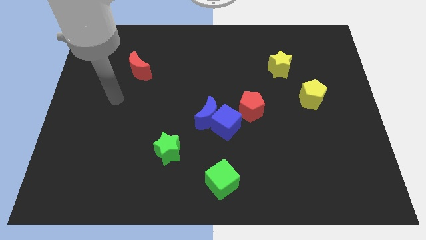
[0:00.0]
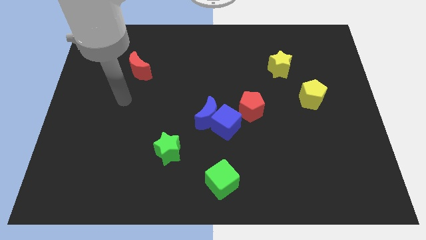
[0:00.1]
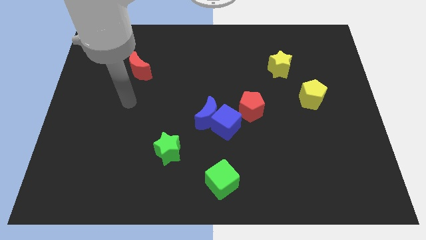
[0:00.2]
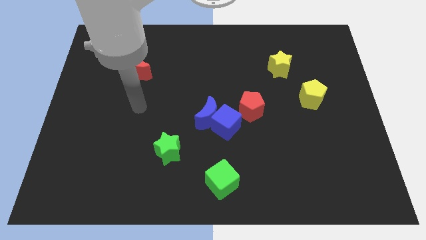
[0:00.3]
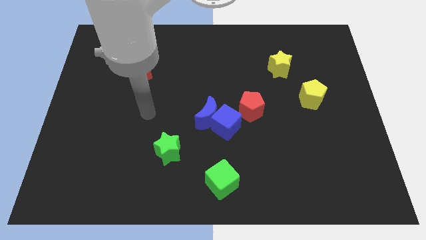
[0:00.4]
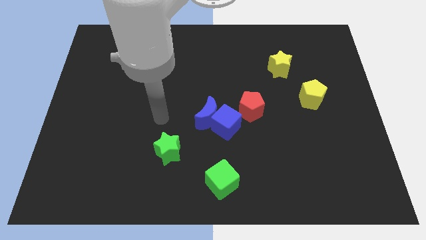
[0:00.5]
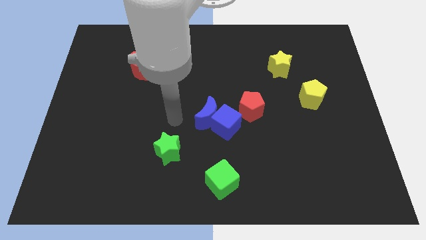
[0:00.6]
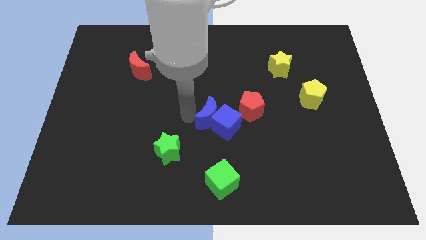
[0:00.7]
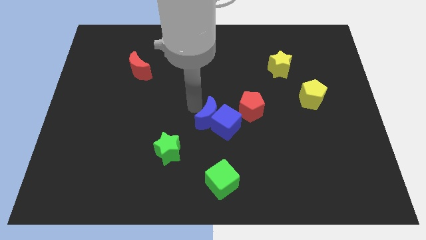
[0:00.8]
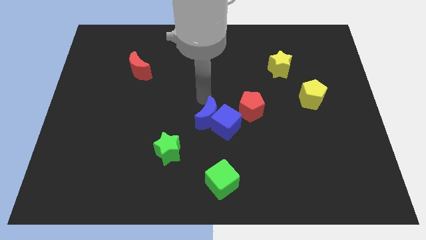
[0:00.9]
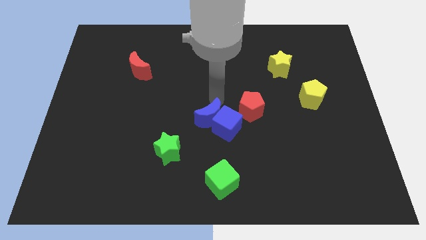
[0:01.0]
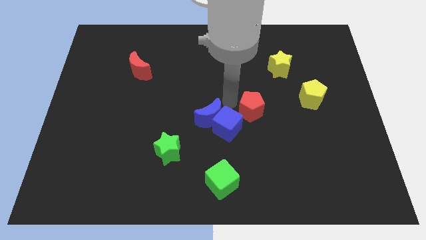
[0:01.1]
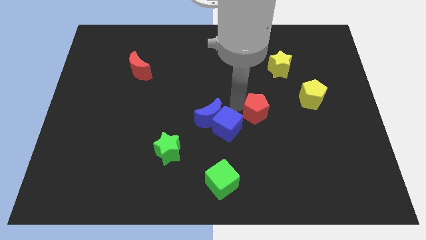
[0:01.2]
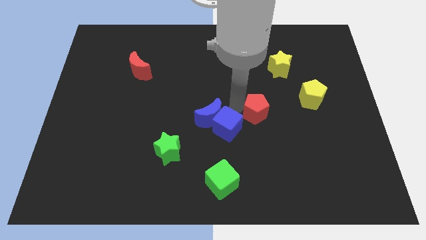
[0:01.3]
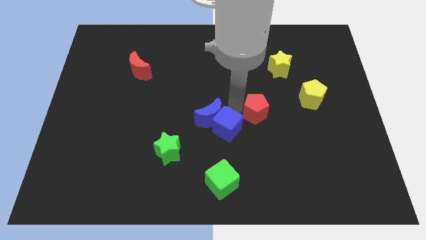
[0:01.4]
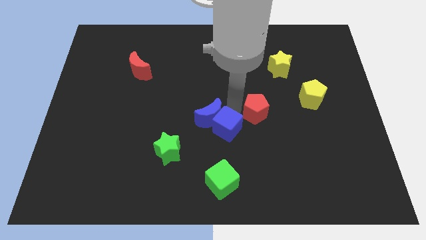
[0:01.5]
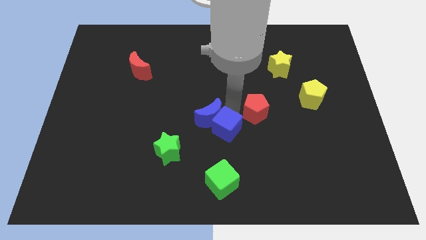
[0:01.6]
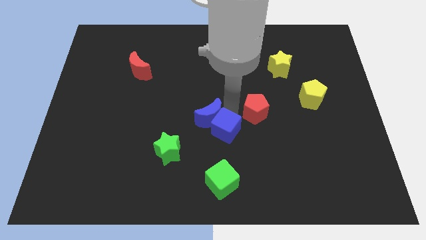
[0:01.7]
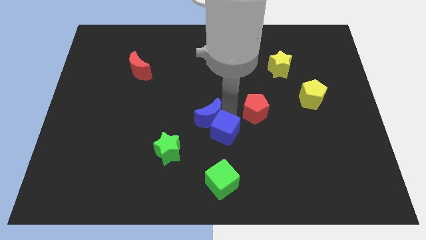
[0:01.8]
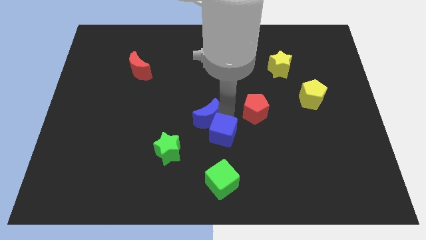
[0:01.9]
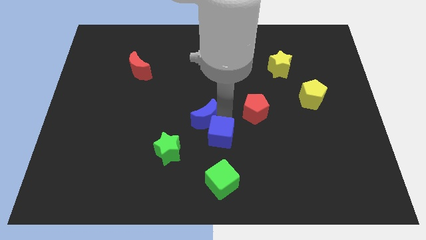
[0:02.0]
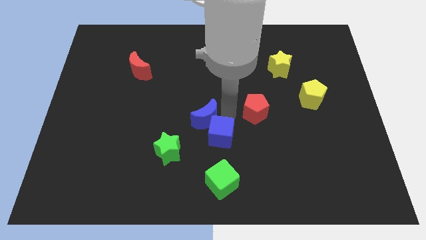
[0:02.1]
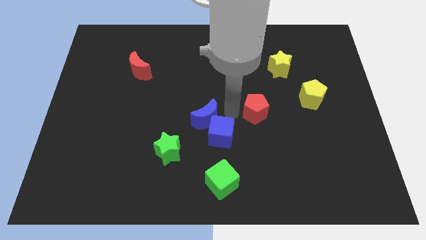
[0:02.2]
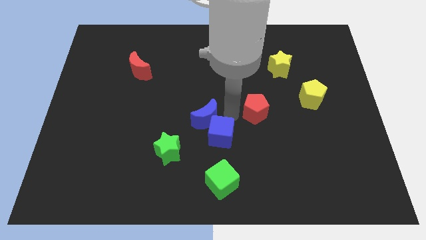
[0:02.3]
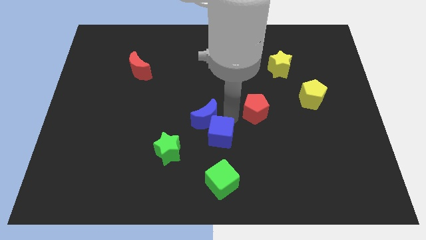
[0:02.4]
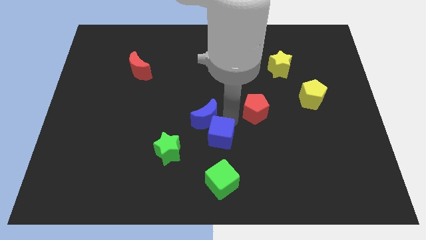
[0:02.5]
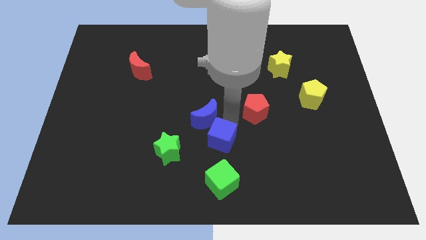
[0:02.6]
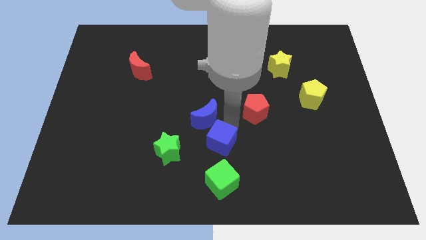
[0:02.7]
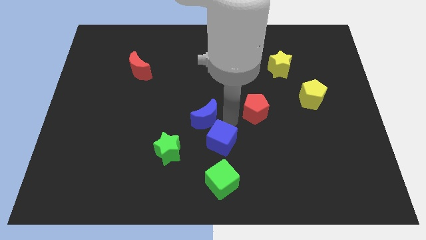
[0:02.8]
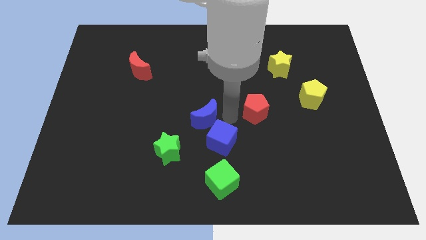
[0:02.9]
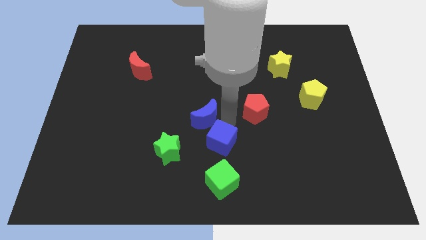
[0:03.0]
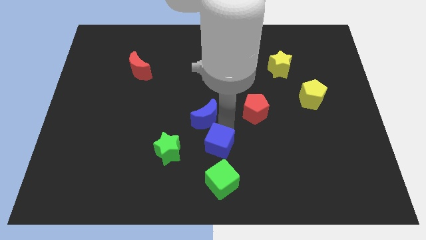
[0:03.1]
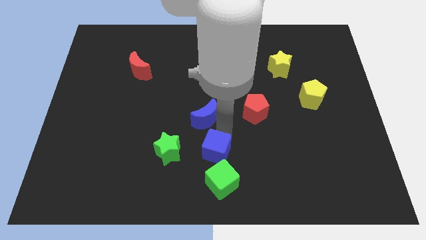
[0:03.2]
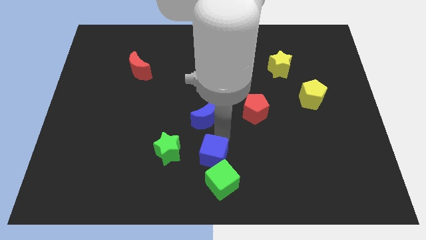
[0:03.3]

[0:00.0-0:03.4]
move the blue cube away from the blue moon and red pentagon

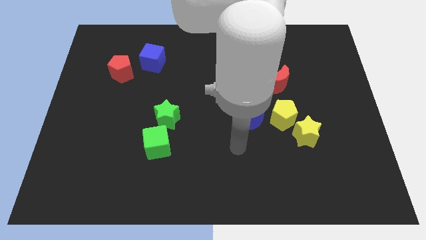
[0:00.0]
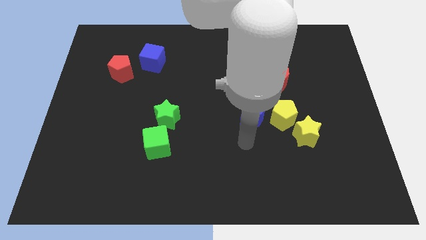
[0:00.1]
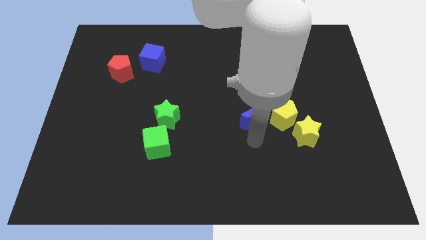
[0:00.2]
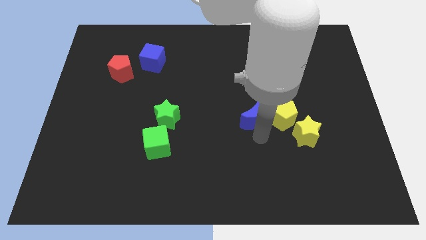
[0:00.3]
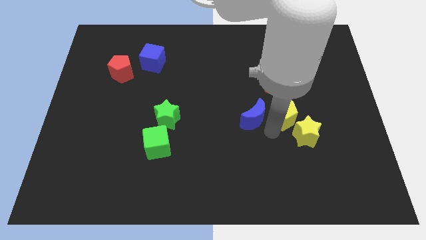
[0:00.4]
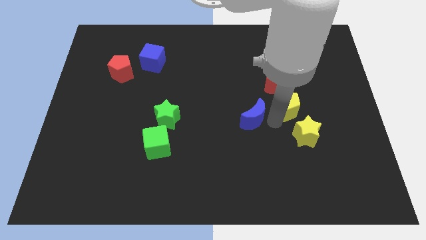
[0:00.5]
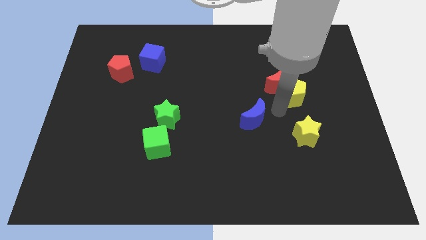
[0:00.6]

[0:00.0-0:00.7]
pull the blue moon apart from the yellow pentagon

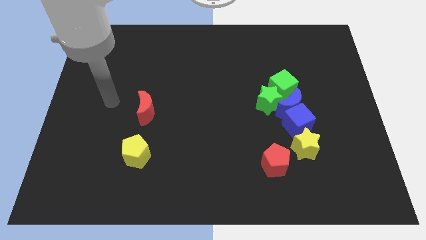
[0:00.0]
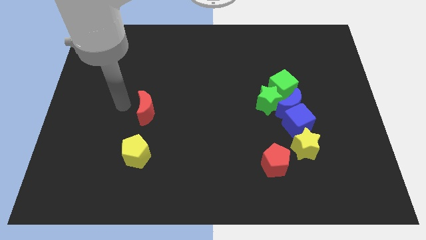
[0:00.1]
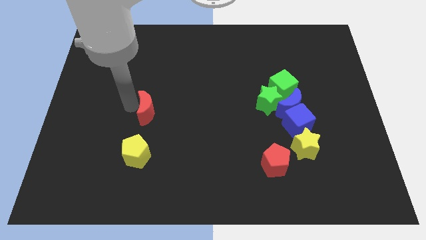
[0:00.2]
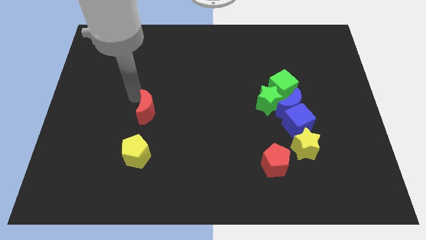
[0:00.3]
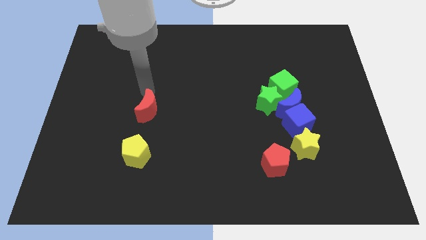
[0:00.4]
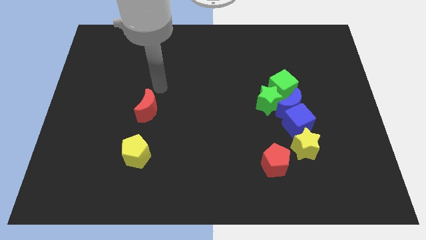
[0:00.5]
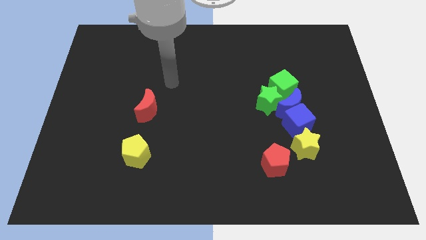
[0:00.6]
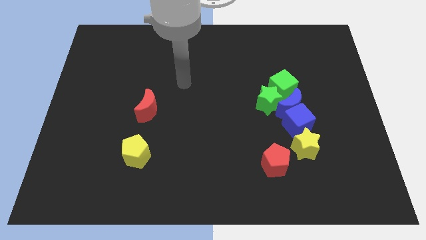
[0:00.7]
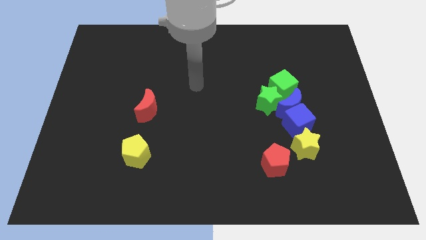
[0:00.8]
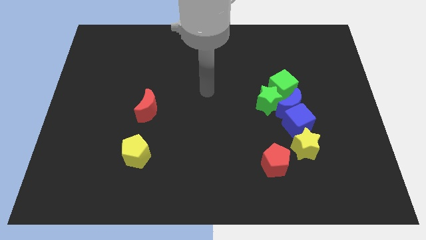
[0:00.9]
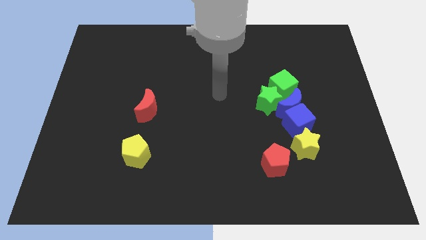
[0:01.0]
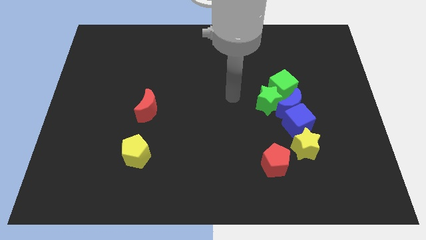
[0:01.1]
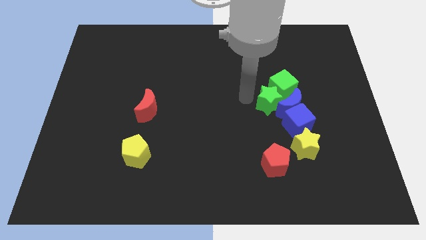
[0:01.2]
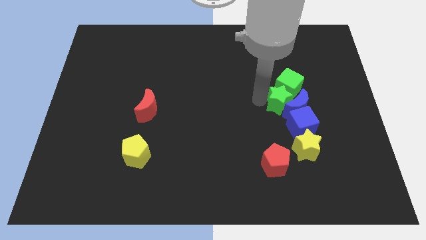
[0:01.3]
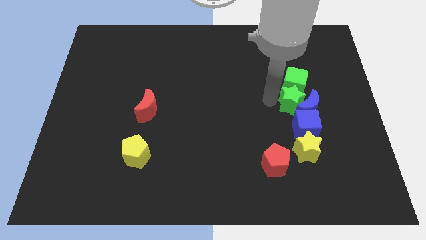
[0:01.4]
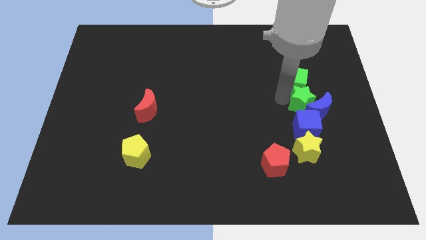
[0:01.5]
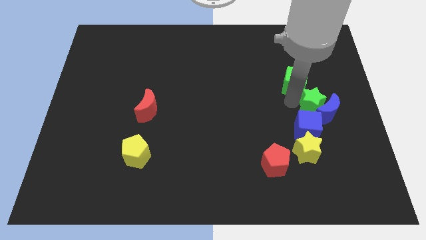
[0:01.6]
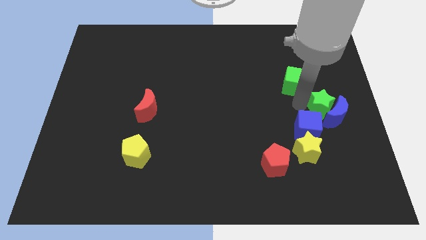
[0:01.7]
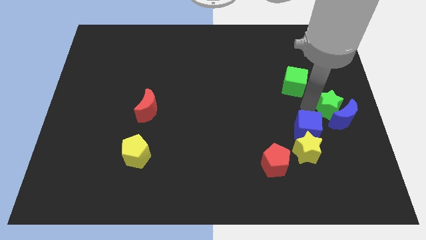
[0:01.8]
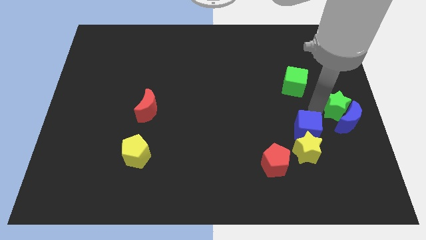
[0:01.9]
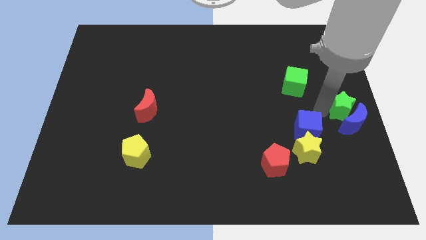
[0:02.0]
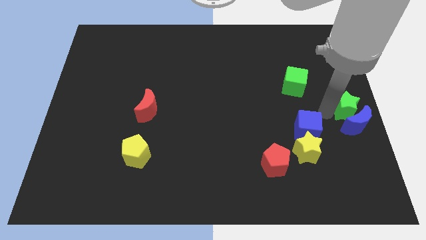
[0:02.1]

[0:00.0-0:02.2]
pull the blue moon apart from the group

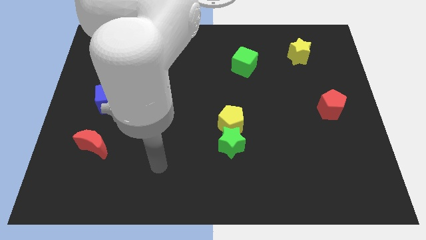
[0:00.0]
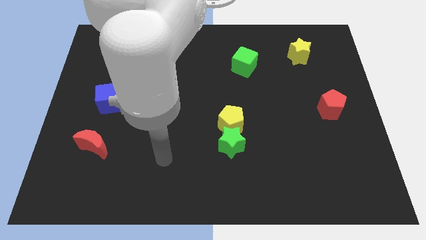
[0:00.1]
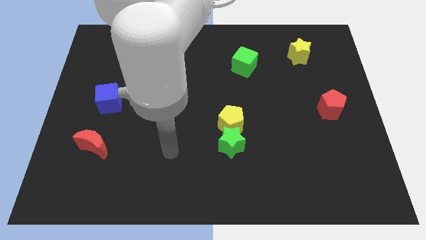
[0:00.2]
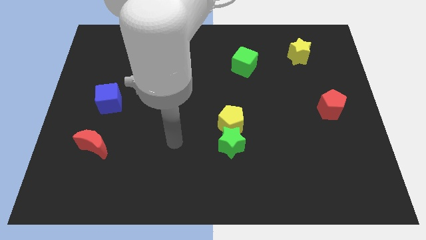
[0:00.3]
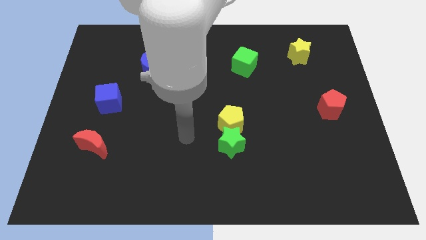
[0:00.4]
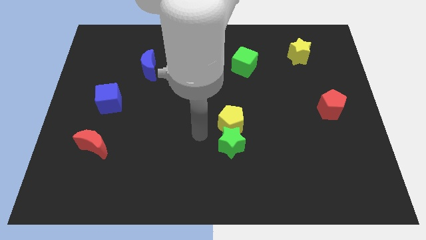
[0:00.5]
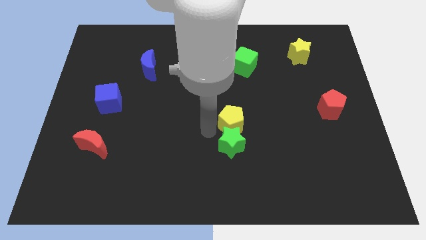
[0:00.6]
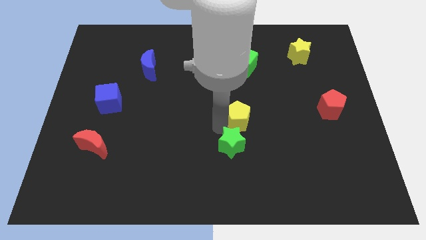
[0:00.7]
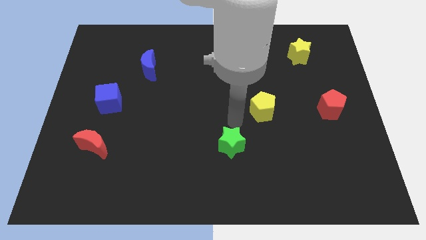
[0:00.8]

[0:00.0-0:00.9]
separate the green star from the yellow pentagon

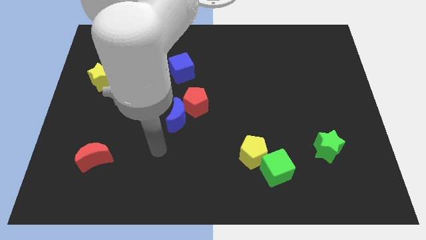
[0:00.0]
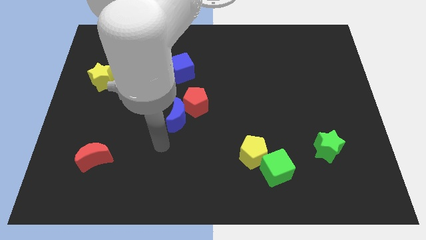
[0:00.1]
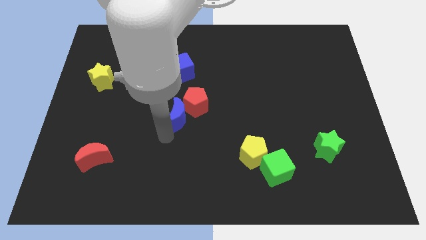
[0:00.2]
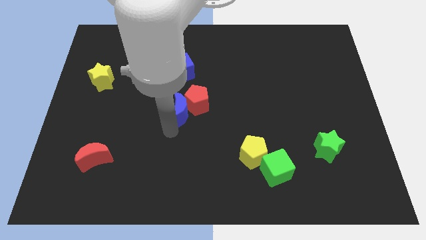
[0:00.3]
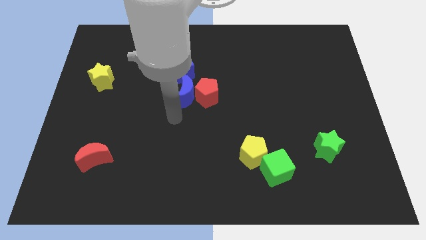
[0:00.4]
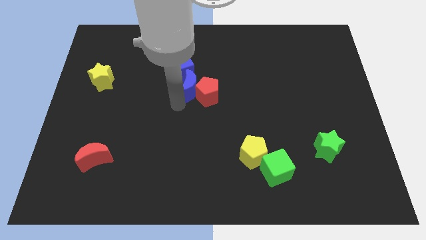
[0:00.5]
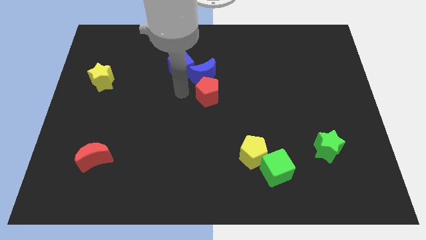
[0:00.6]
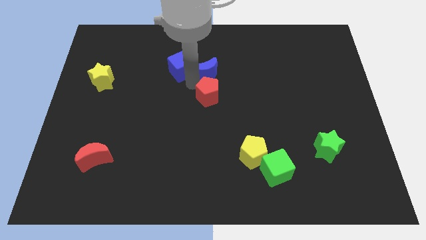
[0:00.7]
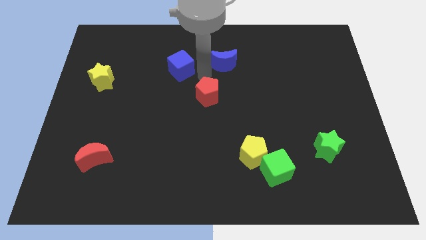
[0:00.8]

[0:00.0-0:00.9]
move the red pentagon away from the blue moon

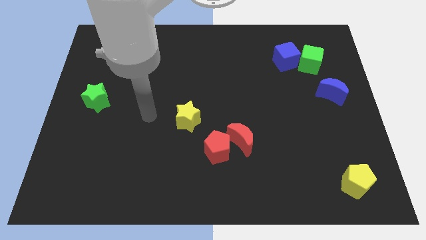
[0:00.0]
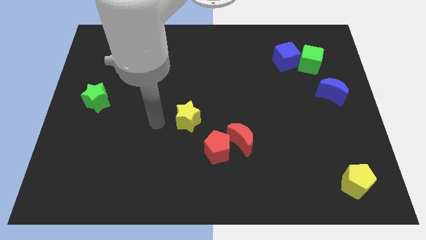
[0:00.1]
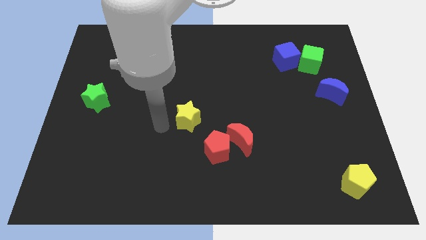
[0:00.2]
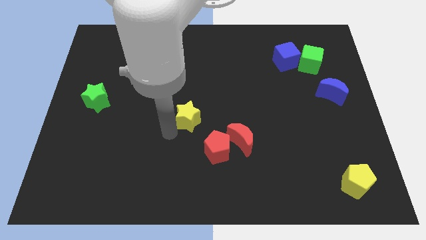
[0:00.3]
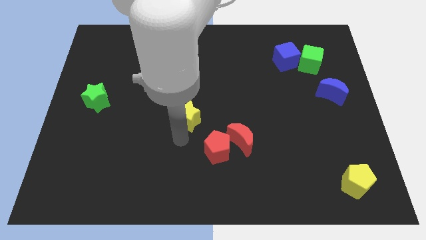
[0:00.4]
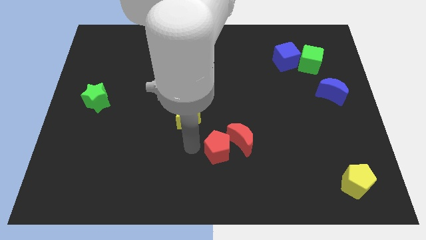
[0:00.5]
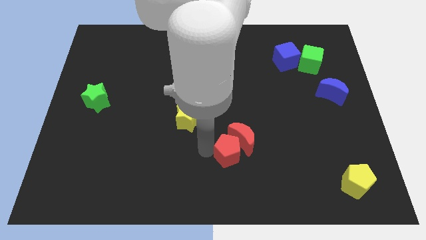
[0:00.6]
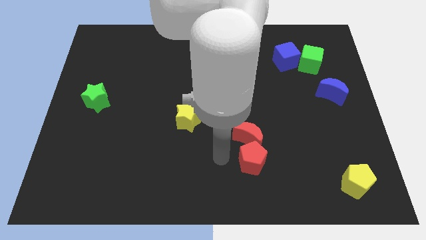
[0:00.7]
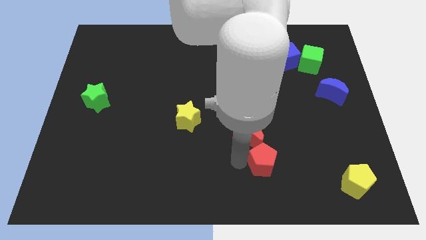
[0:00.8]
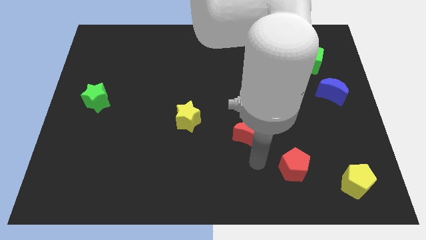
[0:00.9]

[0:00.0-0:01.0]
pull the red moon apart from the red pentagon

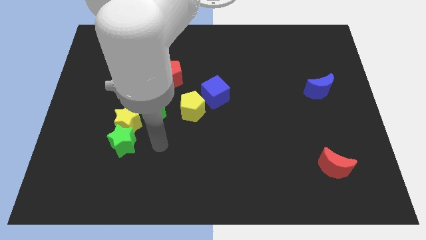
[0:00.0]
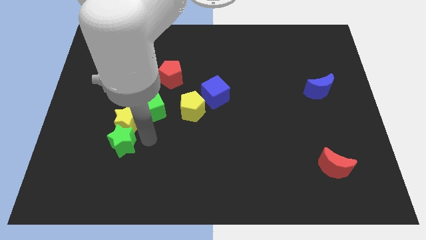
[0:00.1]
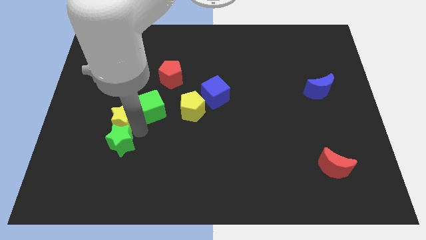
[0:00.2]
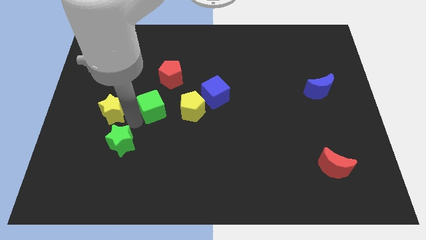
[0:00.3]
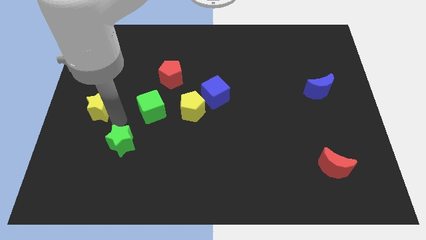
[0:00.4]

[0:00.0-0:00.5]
pull the green star apart from the yellow star
